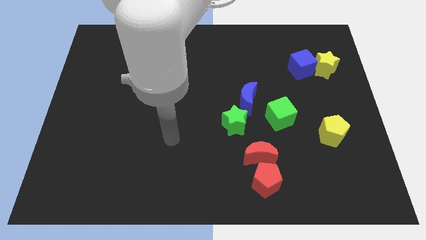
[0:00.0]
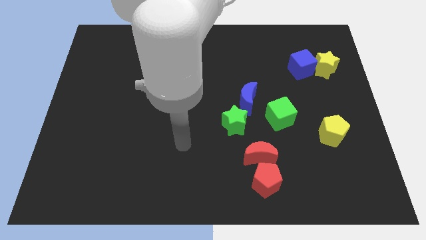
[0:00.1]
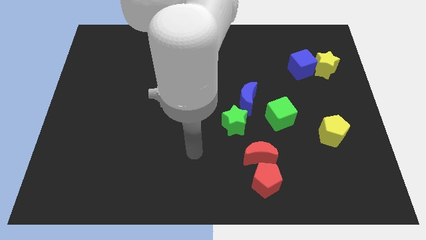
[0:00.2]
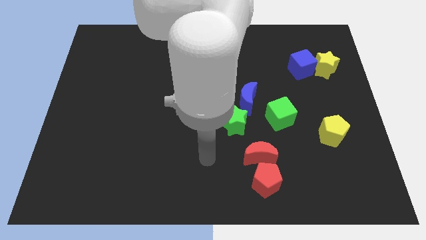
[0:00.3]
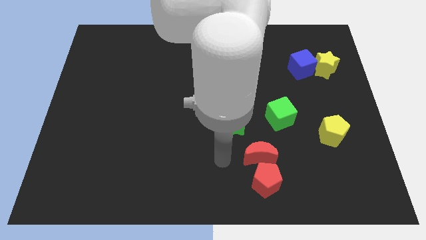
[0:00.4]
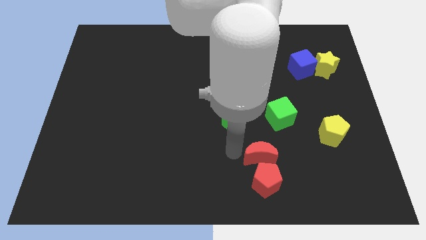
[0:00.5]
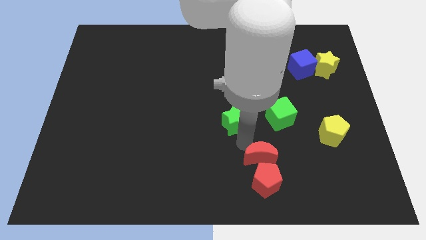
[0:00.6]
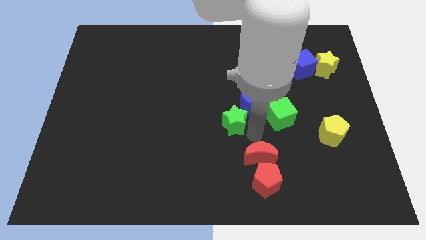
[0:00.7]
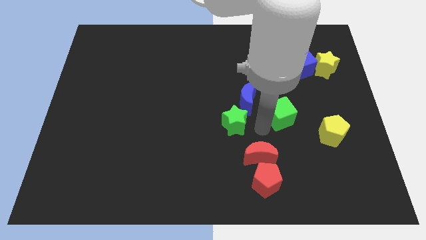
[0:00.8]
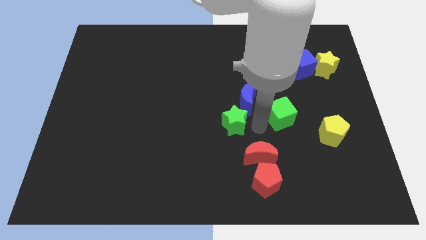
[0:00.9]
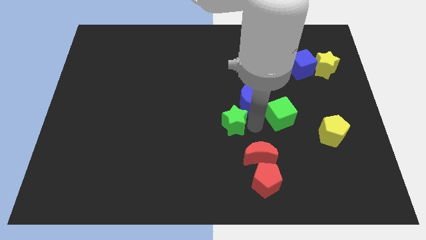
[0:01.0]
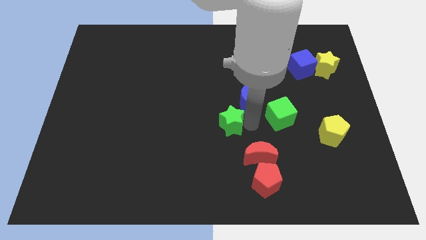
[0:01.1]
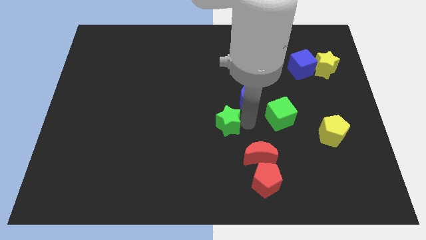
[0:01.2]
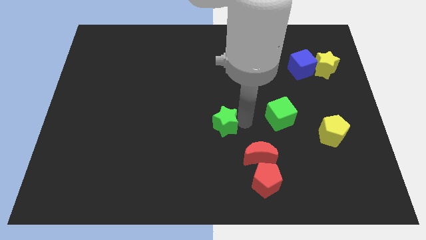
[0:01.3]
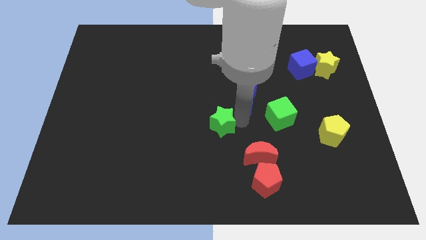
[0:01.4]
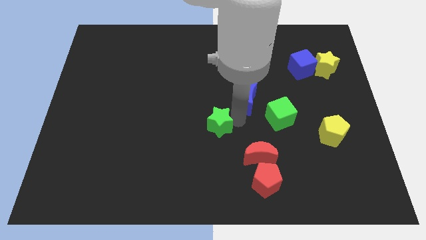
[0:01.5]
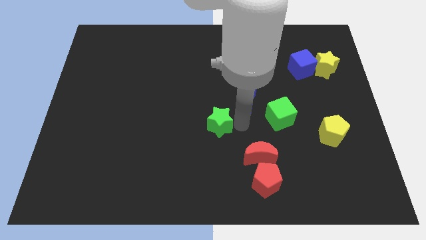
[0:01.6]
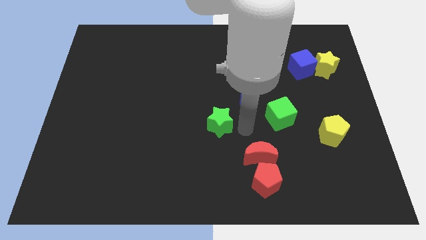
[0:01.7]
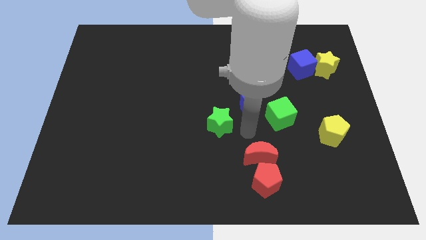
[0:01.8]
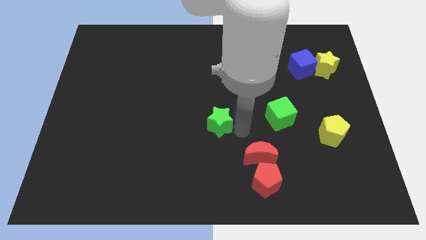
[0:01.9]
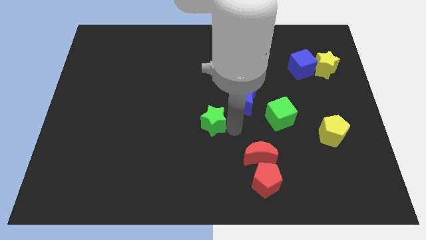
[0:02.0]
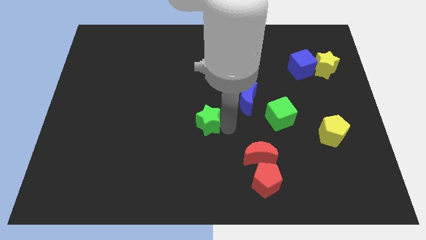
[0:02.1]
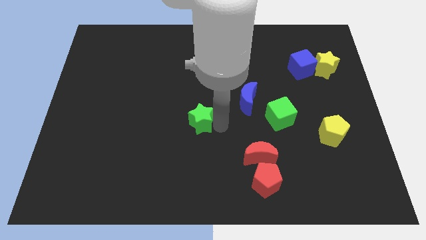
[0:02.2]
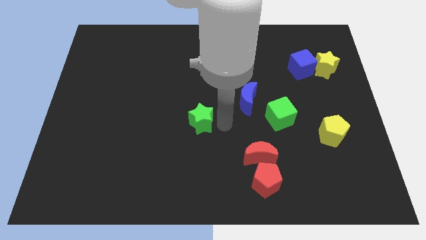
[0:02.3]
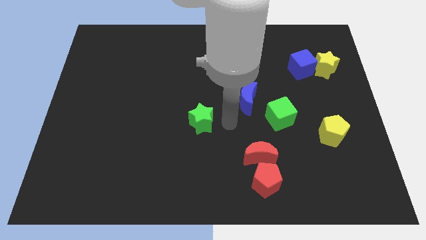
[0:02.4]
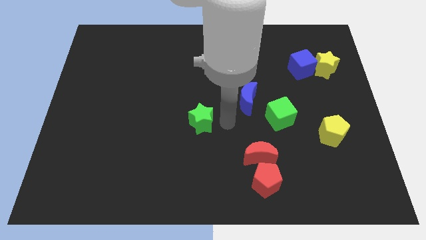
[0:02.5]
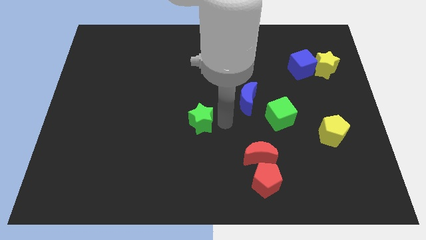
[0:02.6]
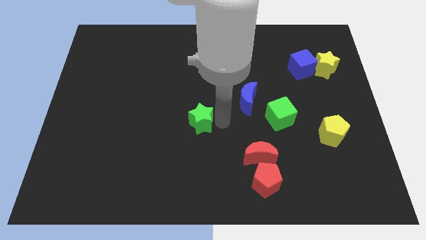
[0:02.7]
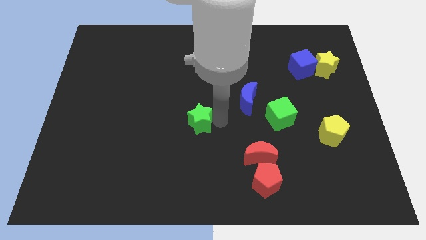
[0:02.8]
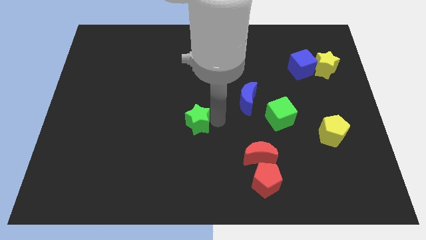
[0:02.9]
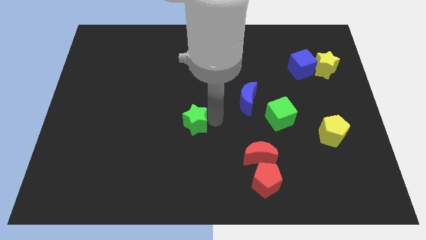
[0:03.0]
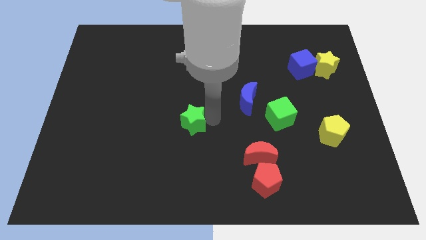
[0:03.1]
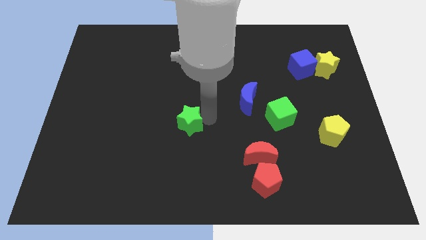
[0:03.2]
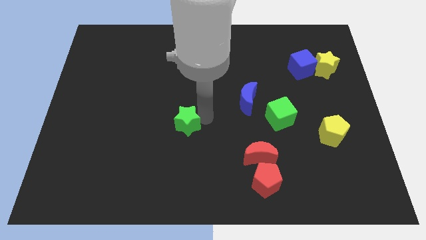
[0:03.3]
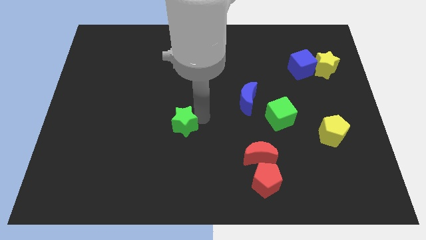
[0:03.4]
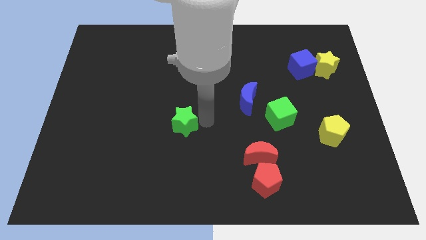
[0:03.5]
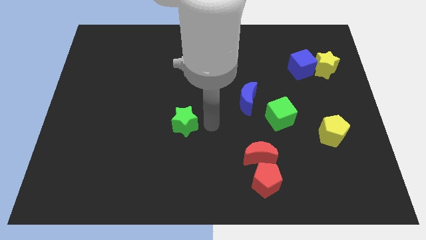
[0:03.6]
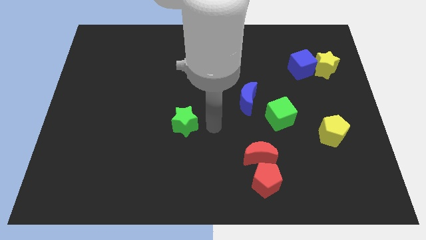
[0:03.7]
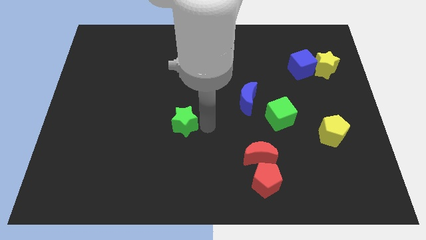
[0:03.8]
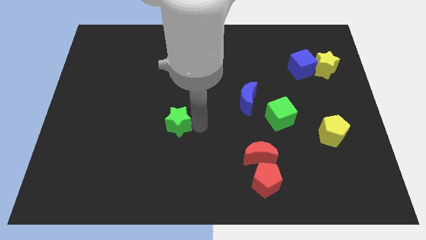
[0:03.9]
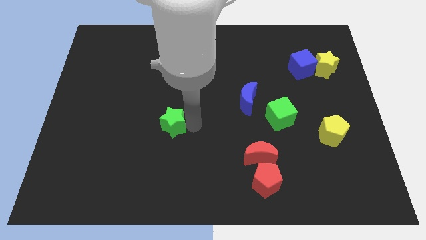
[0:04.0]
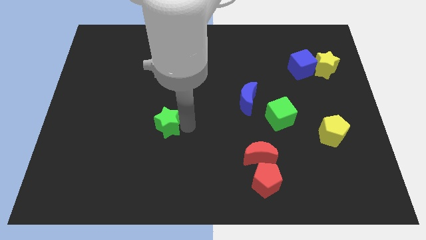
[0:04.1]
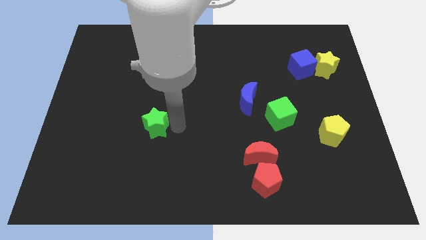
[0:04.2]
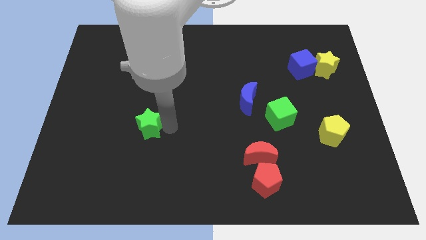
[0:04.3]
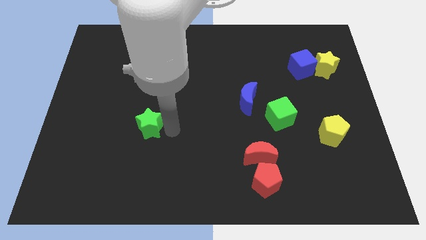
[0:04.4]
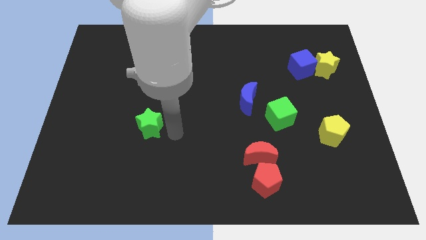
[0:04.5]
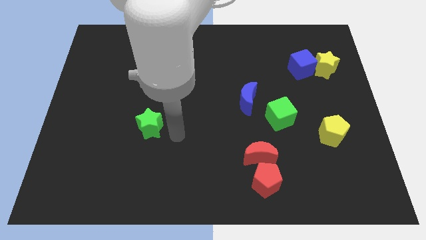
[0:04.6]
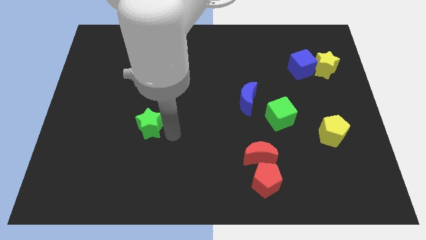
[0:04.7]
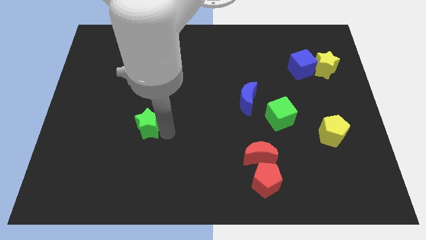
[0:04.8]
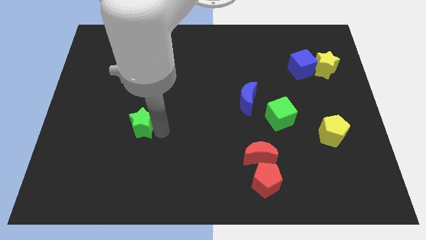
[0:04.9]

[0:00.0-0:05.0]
push the green star to the left

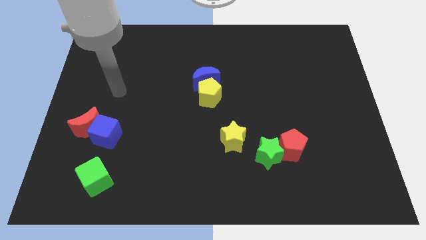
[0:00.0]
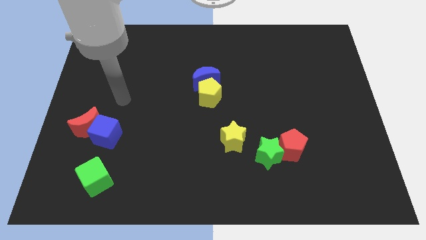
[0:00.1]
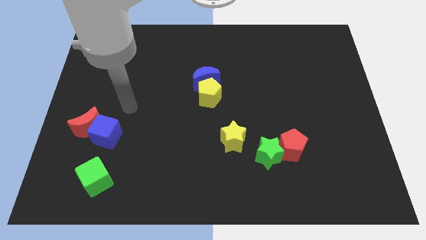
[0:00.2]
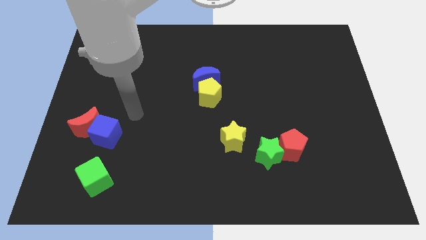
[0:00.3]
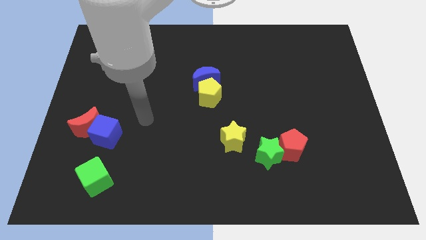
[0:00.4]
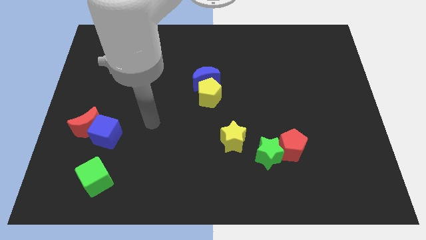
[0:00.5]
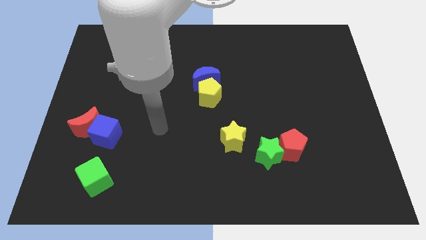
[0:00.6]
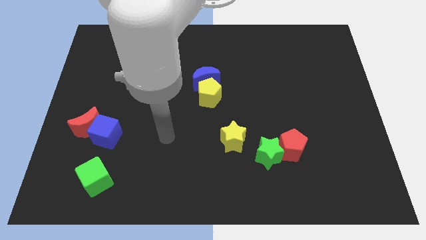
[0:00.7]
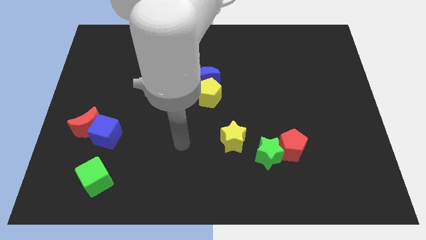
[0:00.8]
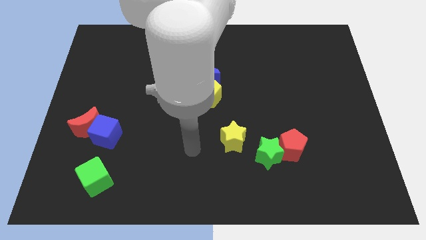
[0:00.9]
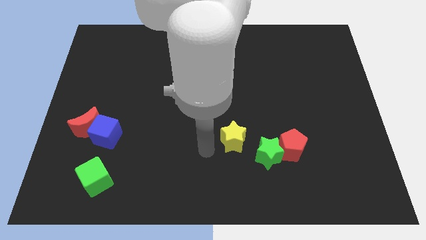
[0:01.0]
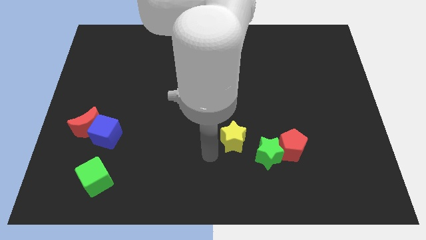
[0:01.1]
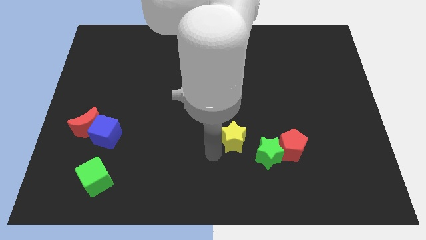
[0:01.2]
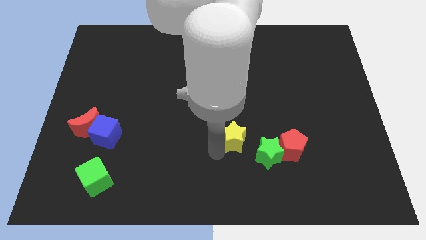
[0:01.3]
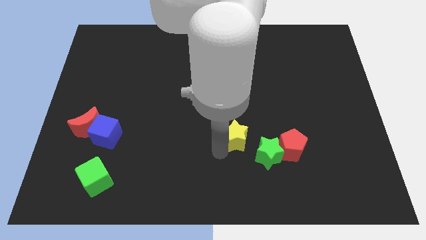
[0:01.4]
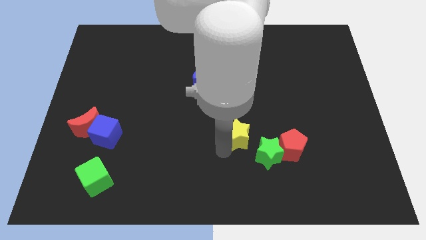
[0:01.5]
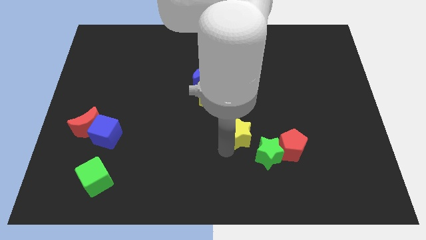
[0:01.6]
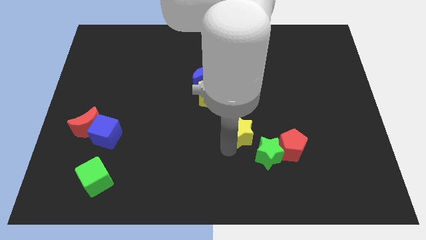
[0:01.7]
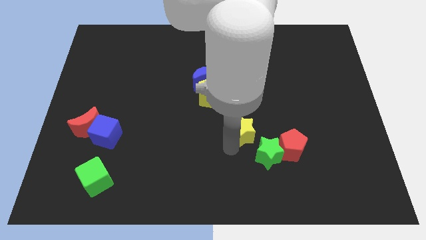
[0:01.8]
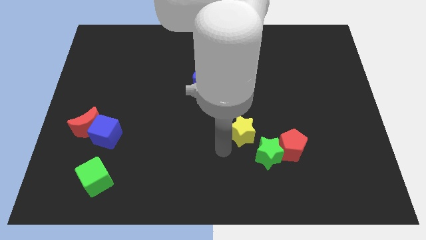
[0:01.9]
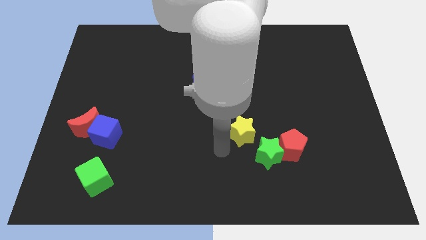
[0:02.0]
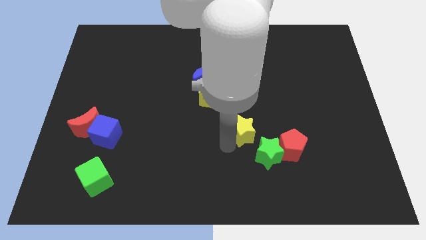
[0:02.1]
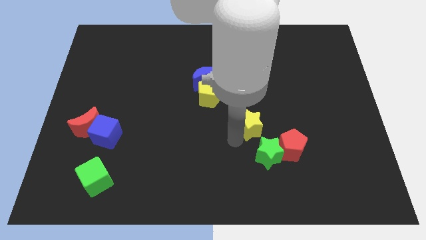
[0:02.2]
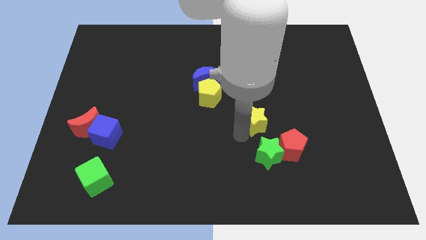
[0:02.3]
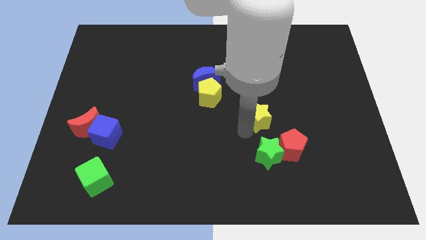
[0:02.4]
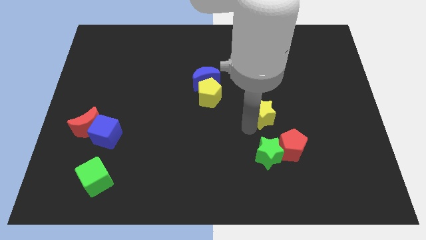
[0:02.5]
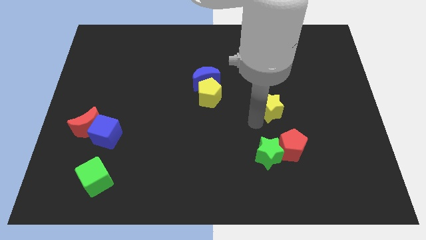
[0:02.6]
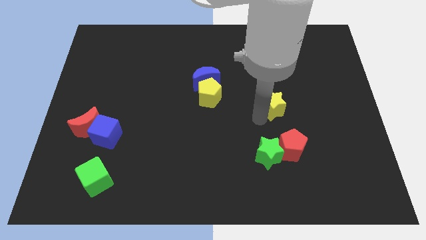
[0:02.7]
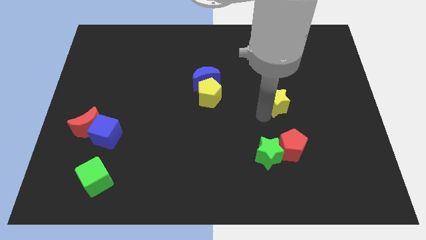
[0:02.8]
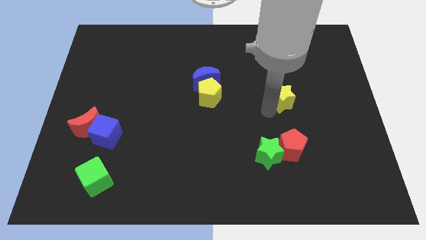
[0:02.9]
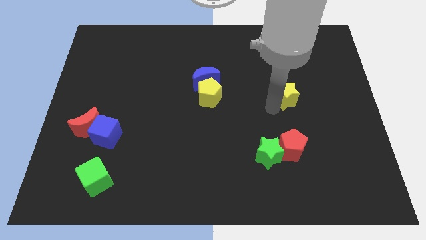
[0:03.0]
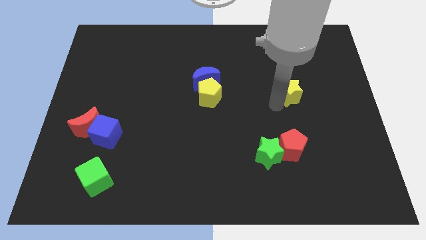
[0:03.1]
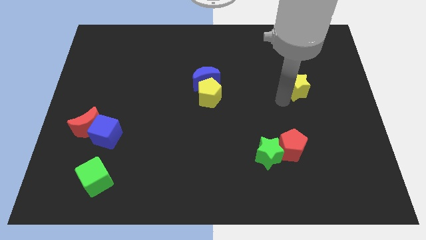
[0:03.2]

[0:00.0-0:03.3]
move the yellow star upwards and to the right
